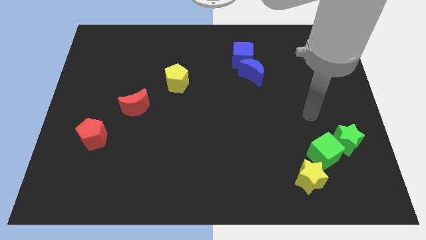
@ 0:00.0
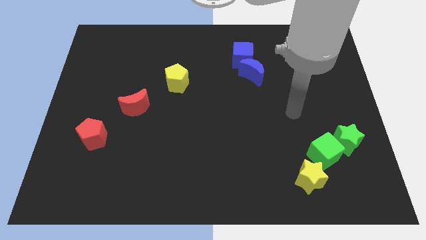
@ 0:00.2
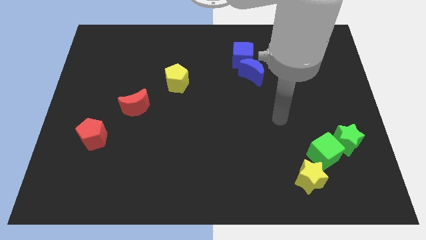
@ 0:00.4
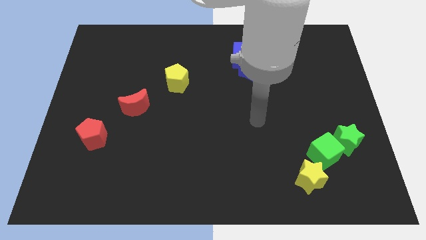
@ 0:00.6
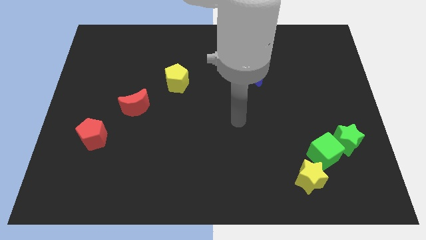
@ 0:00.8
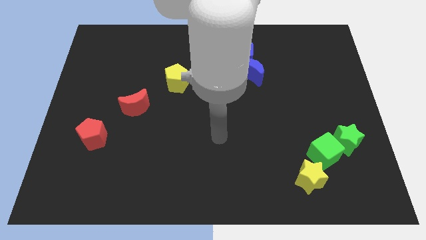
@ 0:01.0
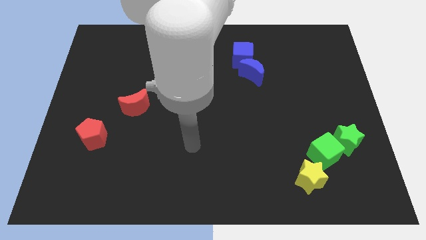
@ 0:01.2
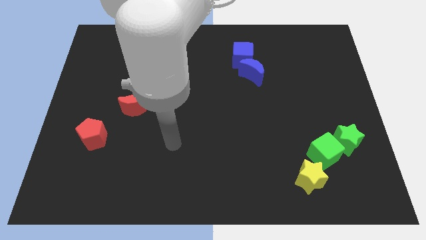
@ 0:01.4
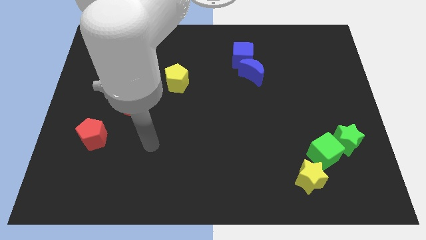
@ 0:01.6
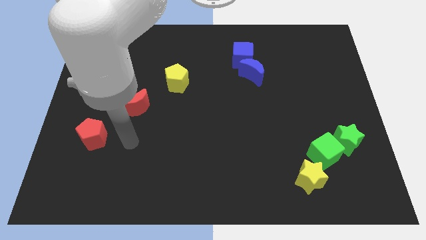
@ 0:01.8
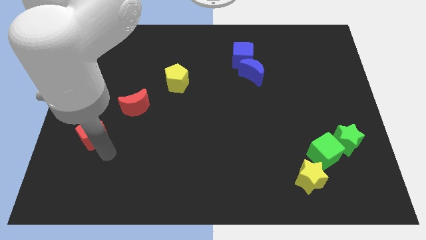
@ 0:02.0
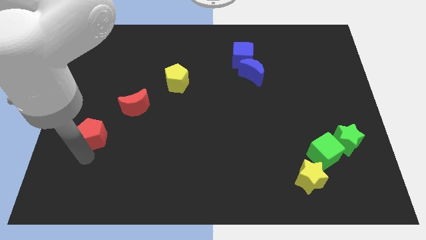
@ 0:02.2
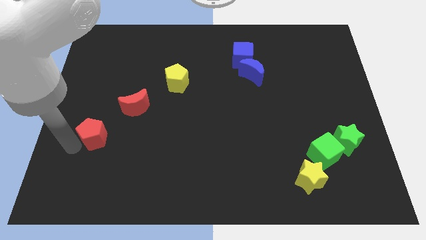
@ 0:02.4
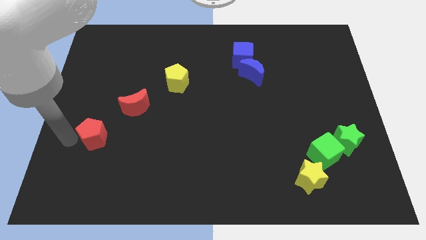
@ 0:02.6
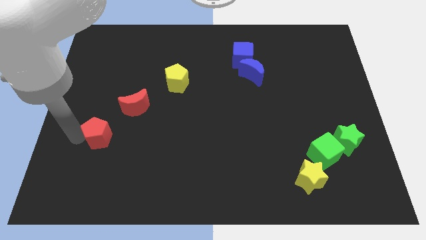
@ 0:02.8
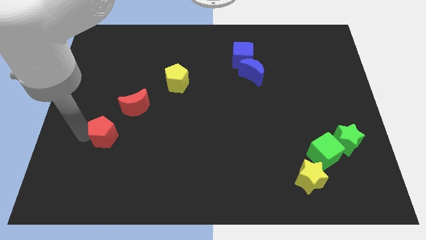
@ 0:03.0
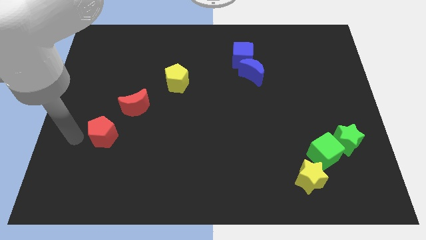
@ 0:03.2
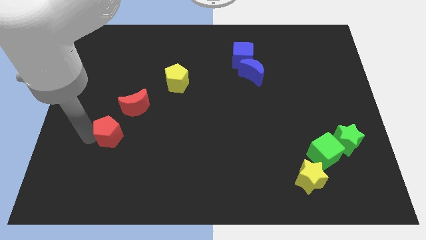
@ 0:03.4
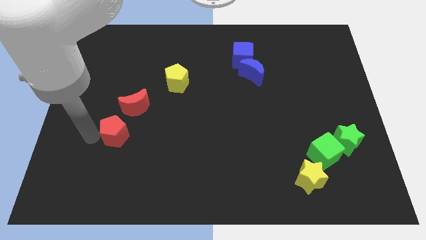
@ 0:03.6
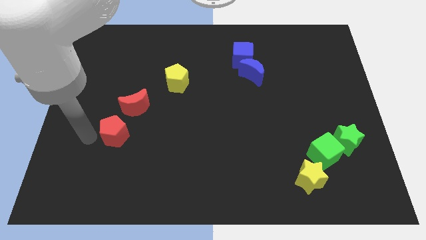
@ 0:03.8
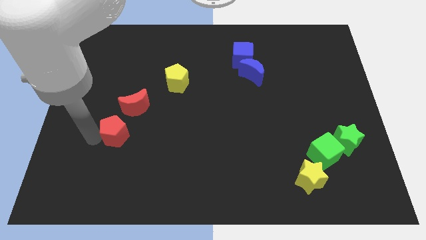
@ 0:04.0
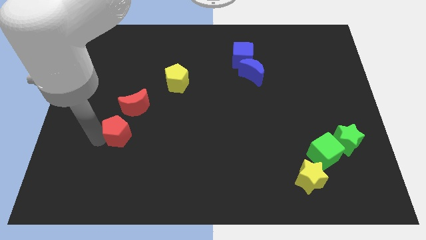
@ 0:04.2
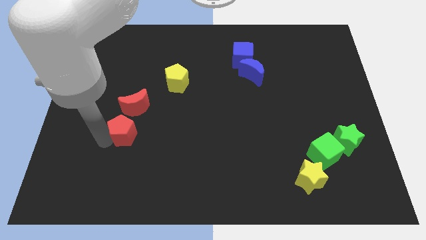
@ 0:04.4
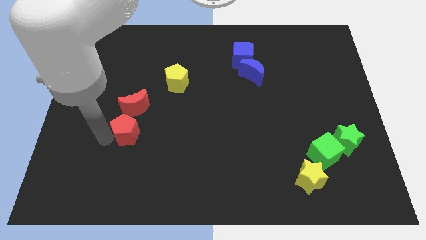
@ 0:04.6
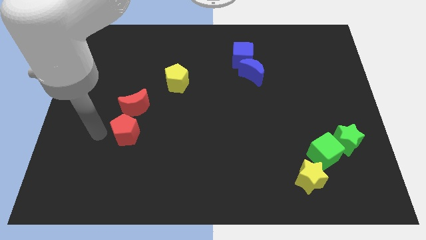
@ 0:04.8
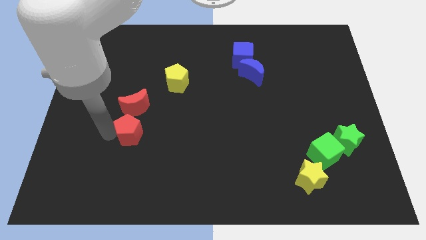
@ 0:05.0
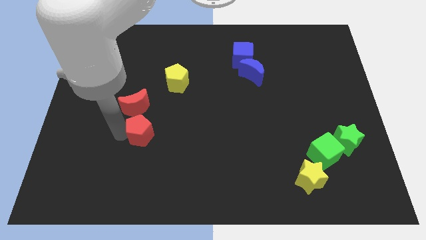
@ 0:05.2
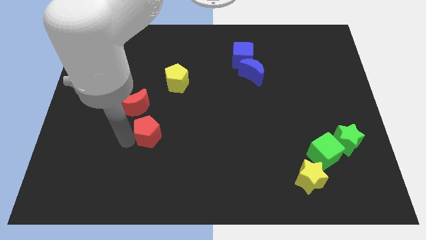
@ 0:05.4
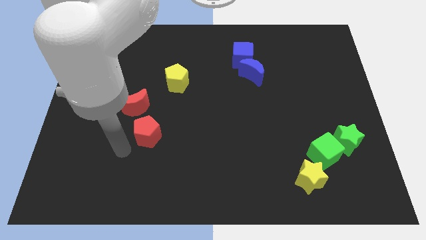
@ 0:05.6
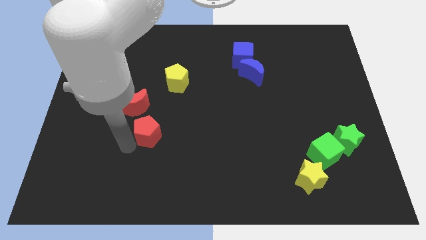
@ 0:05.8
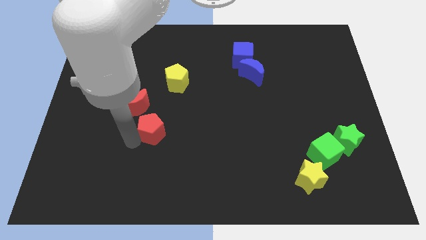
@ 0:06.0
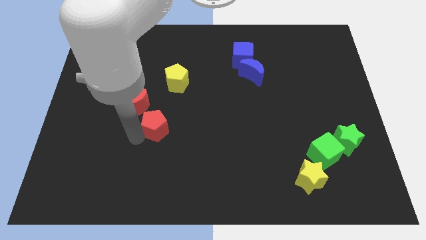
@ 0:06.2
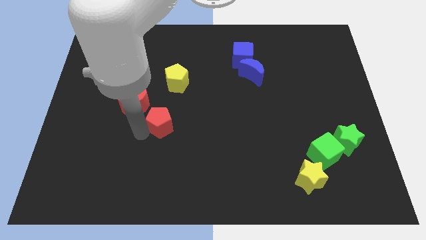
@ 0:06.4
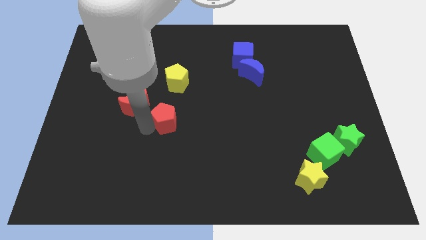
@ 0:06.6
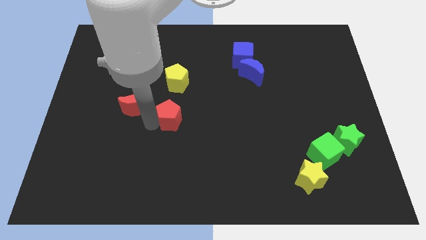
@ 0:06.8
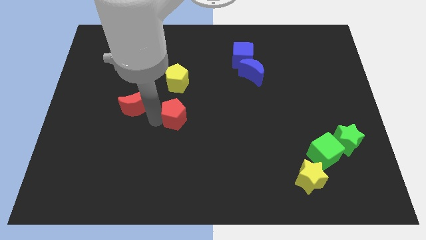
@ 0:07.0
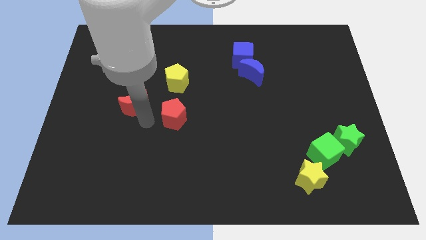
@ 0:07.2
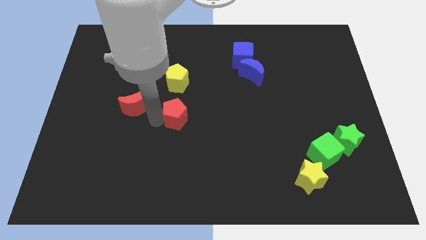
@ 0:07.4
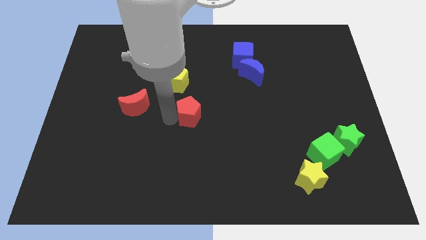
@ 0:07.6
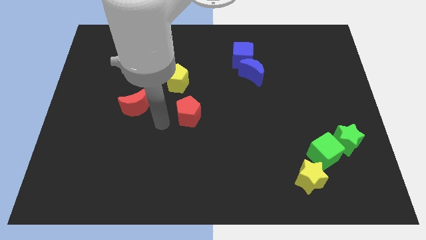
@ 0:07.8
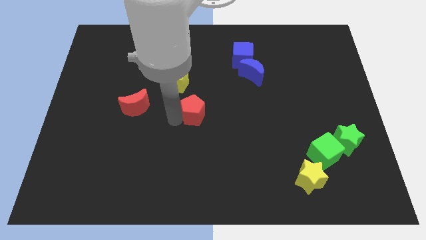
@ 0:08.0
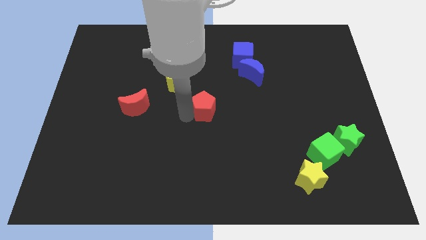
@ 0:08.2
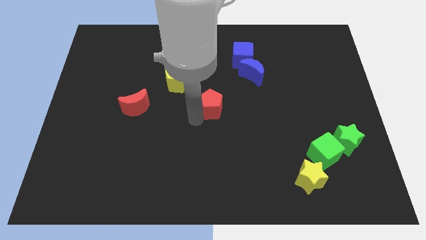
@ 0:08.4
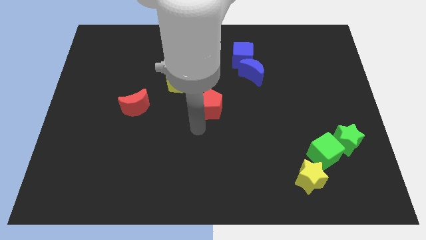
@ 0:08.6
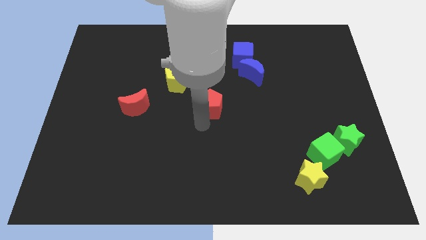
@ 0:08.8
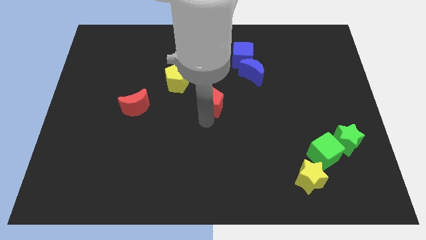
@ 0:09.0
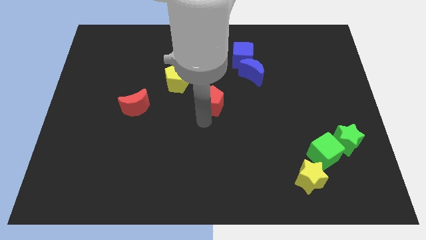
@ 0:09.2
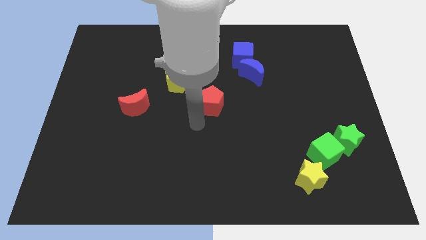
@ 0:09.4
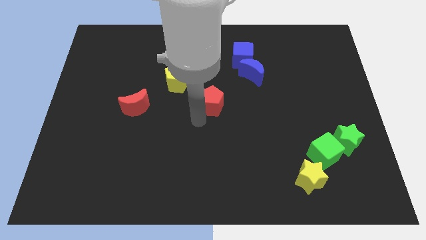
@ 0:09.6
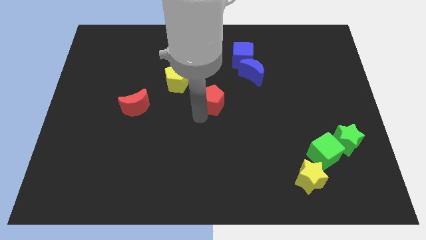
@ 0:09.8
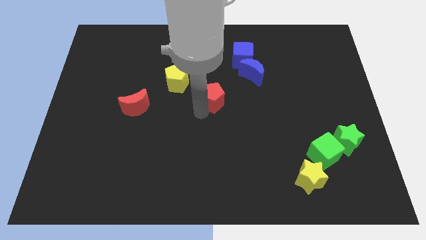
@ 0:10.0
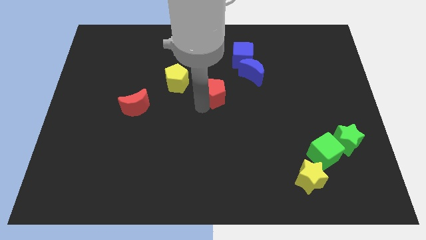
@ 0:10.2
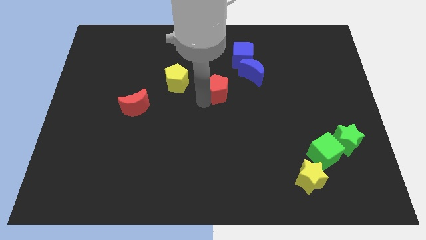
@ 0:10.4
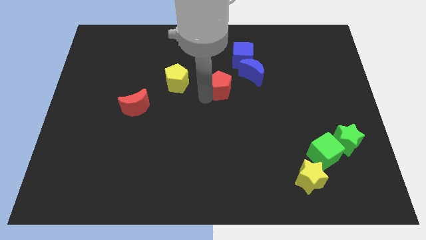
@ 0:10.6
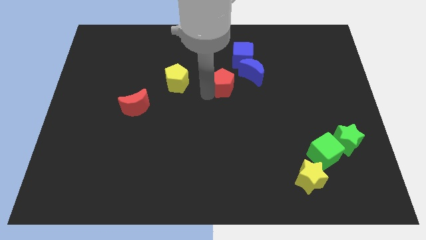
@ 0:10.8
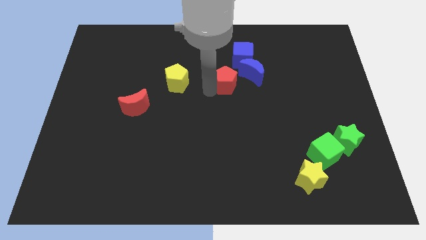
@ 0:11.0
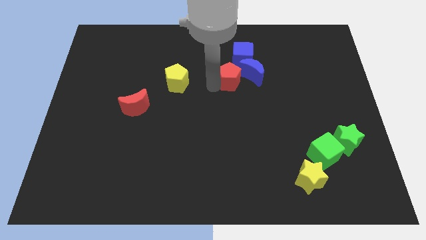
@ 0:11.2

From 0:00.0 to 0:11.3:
put the red pentagon to the blue moon

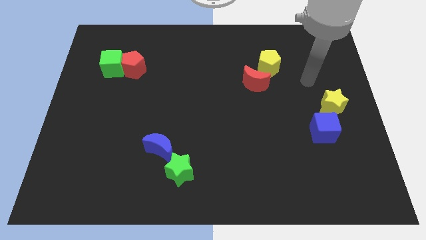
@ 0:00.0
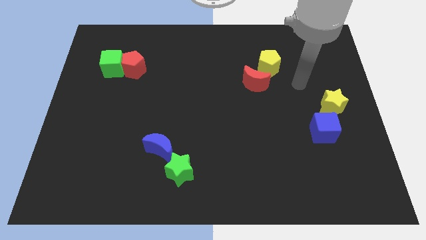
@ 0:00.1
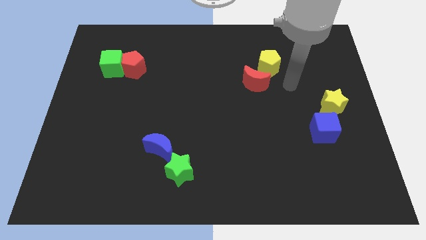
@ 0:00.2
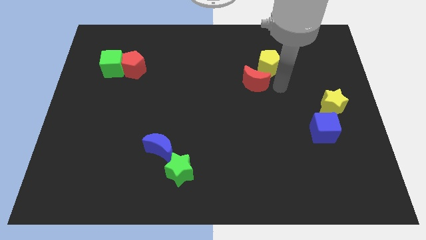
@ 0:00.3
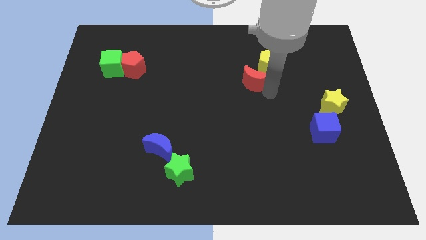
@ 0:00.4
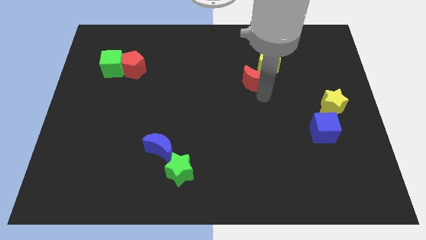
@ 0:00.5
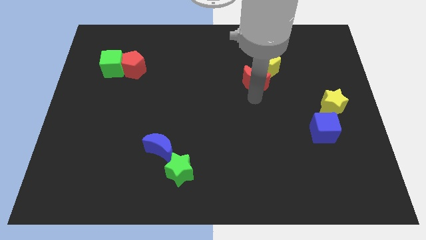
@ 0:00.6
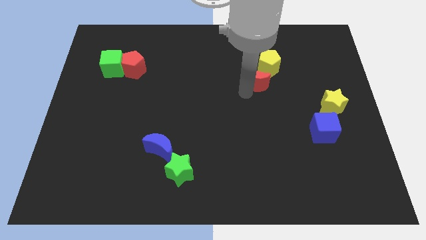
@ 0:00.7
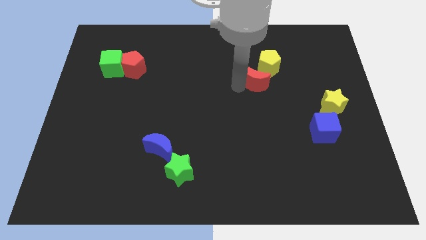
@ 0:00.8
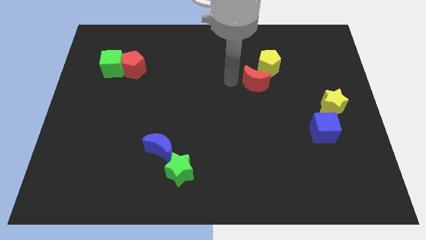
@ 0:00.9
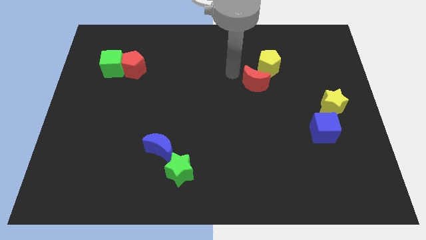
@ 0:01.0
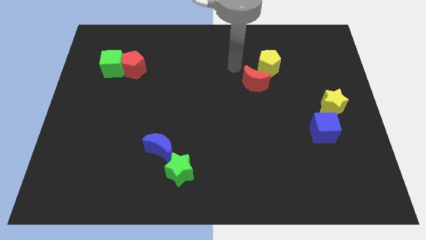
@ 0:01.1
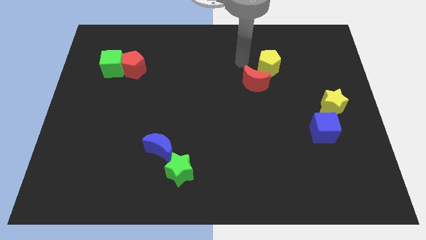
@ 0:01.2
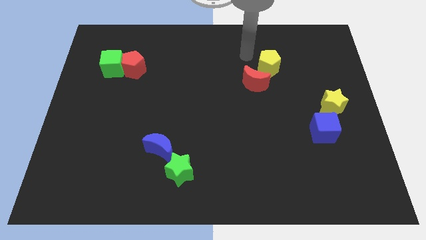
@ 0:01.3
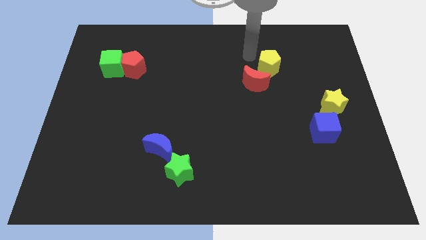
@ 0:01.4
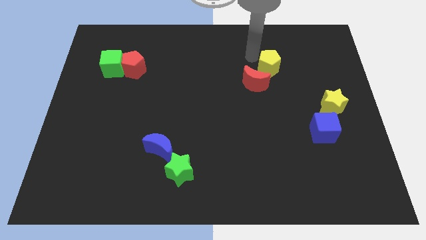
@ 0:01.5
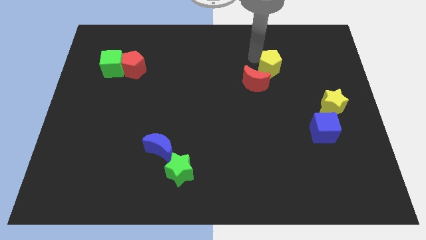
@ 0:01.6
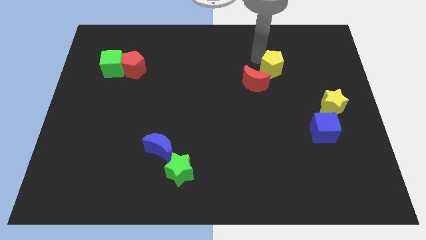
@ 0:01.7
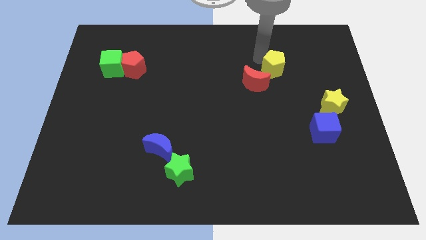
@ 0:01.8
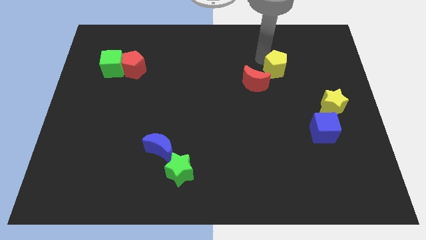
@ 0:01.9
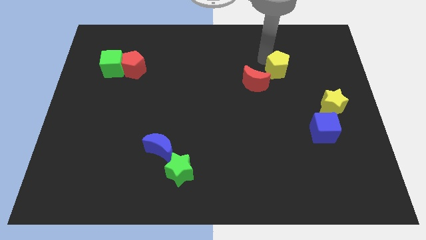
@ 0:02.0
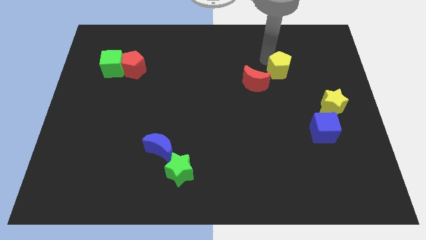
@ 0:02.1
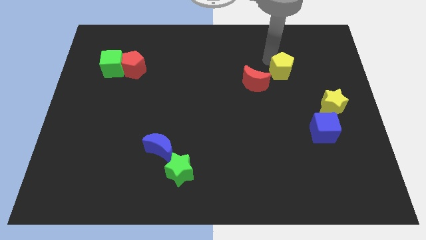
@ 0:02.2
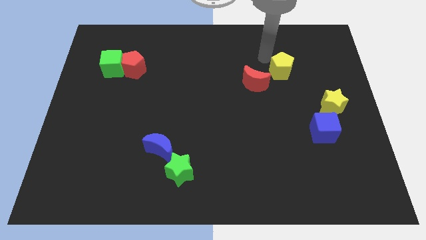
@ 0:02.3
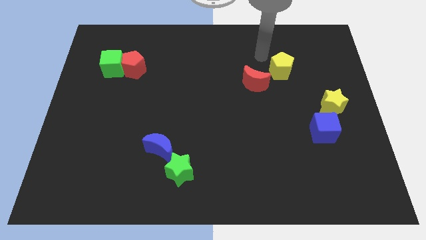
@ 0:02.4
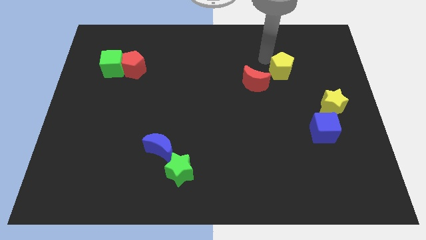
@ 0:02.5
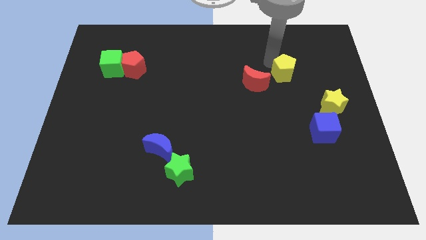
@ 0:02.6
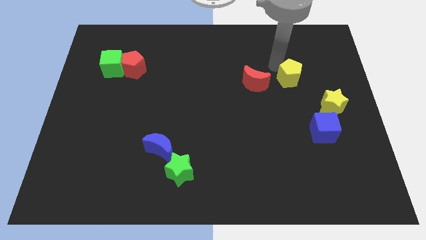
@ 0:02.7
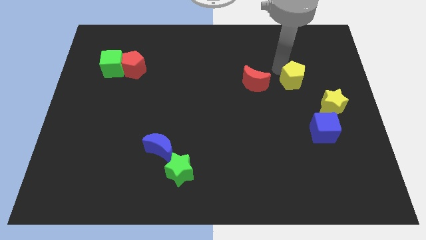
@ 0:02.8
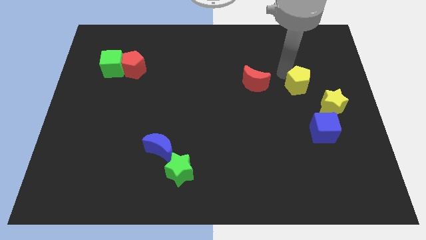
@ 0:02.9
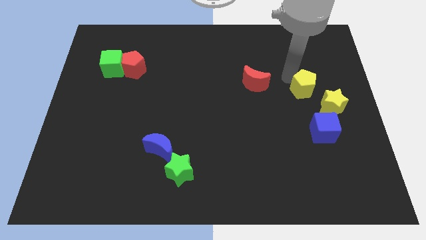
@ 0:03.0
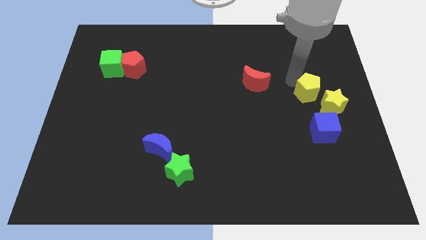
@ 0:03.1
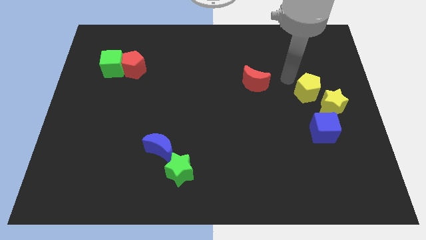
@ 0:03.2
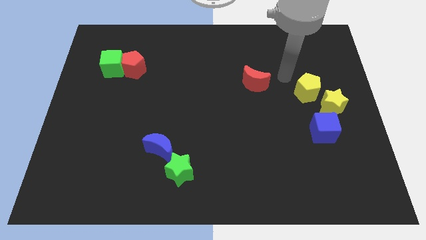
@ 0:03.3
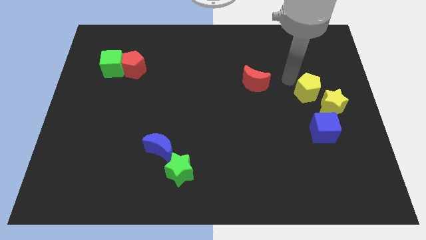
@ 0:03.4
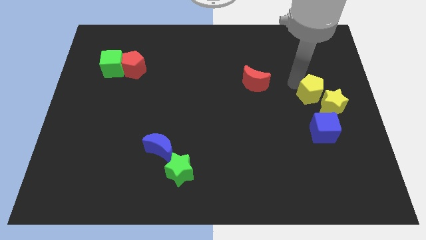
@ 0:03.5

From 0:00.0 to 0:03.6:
move the yellow pentagon to the yellow star
